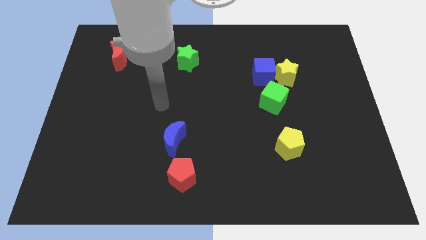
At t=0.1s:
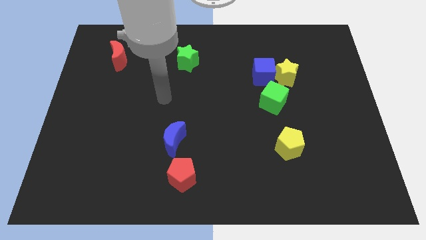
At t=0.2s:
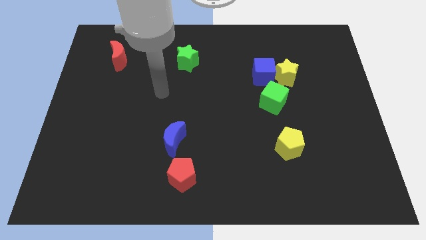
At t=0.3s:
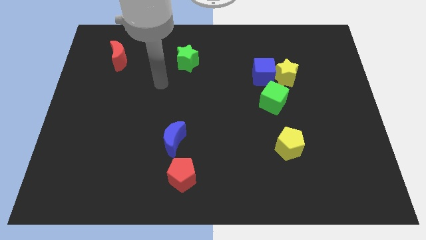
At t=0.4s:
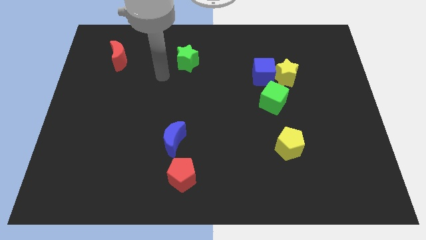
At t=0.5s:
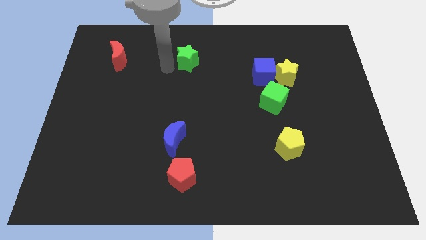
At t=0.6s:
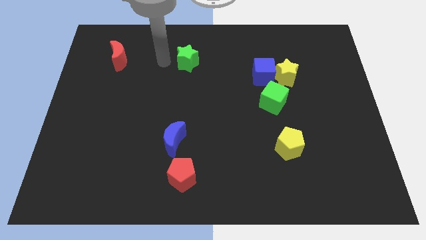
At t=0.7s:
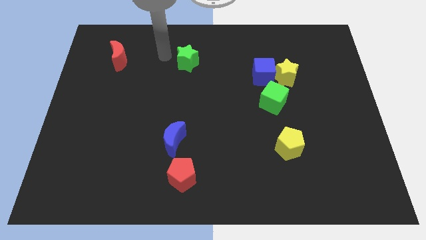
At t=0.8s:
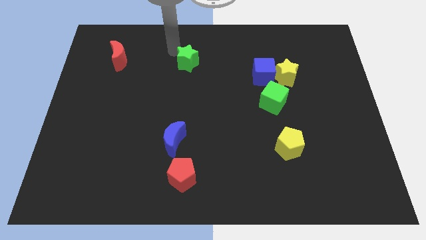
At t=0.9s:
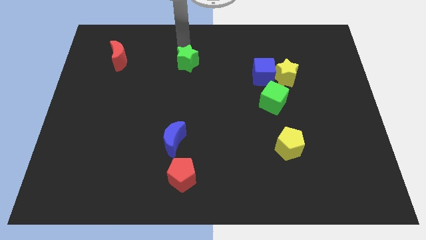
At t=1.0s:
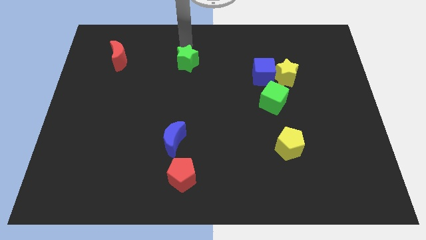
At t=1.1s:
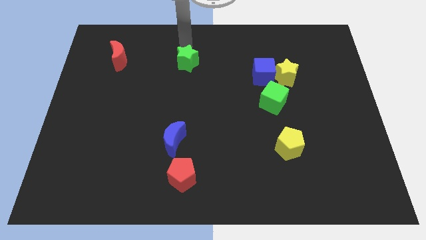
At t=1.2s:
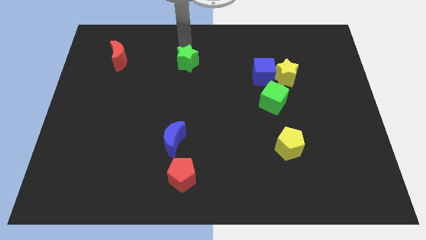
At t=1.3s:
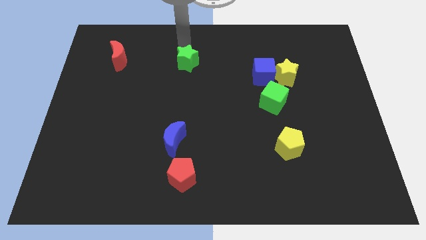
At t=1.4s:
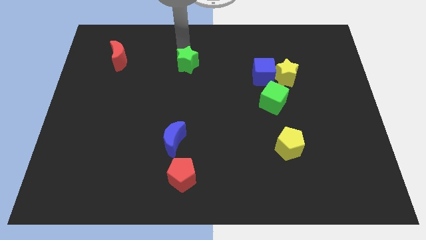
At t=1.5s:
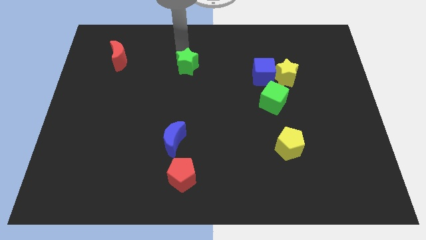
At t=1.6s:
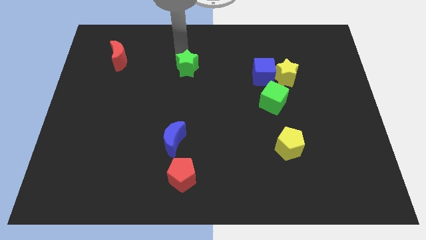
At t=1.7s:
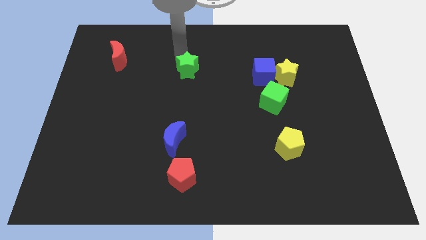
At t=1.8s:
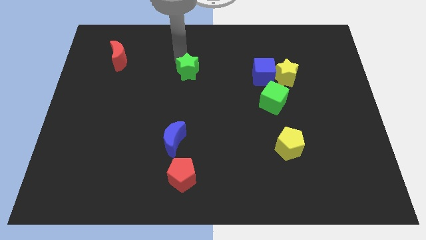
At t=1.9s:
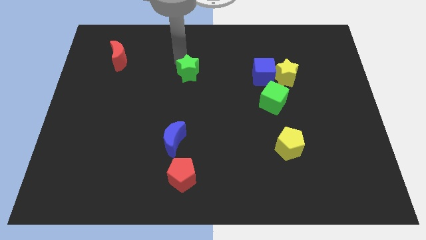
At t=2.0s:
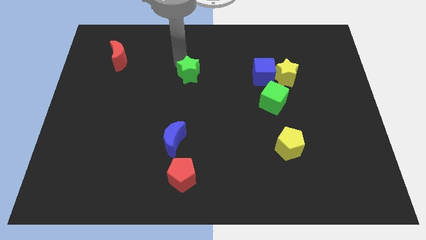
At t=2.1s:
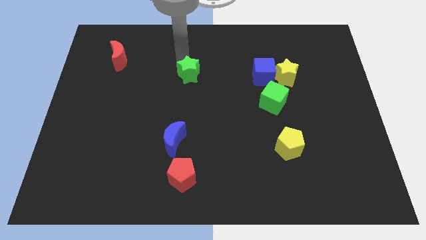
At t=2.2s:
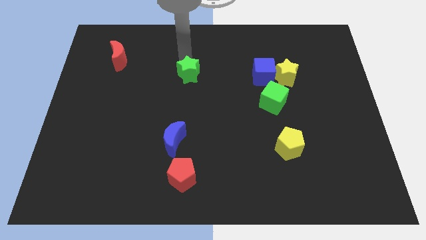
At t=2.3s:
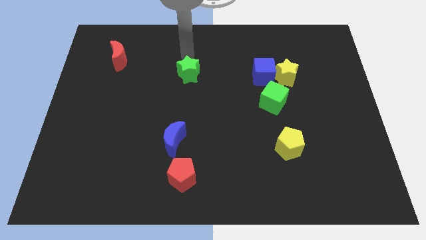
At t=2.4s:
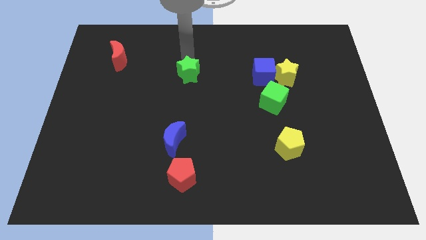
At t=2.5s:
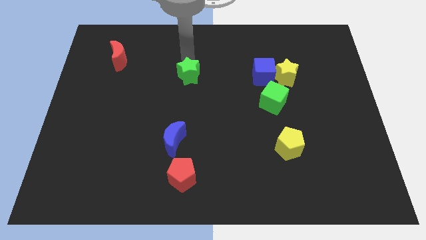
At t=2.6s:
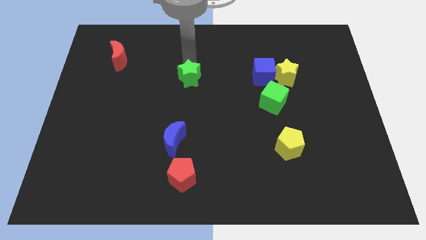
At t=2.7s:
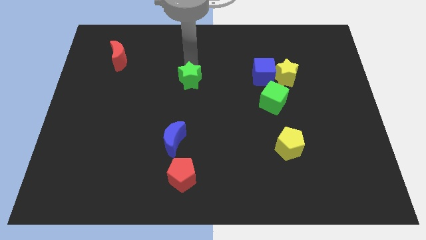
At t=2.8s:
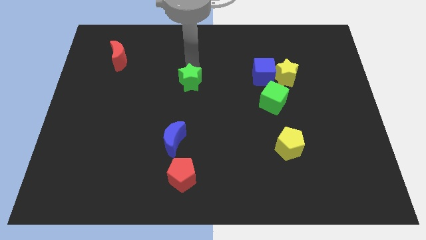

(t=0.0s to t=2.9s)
slide the green star downwards somewhat

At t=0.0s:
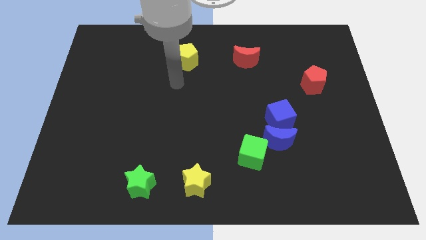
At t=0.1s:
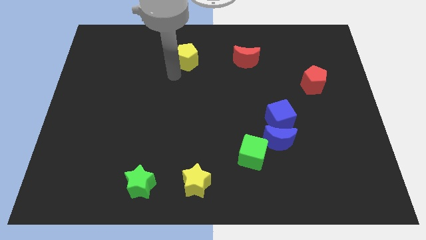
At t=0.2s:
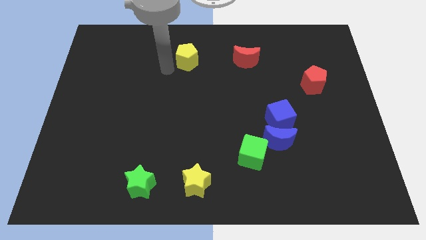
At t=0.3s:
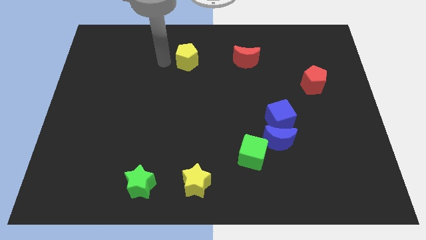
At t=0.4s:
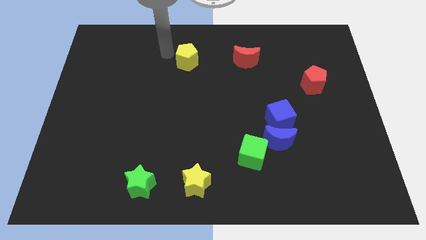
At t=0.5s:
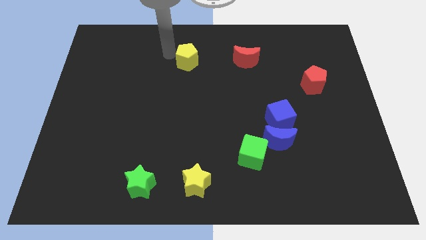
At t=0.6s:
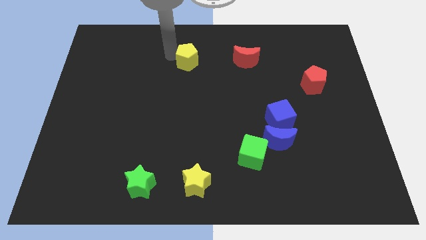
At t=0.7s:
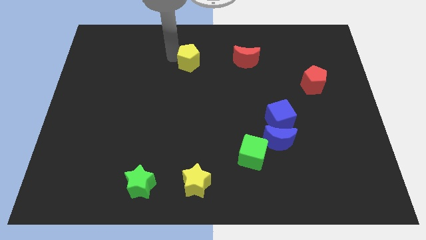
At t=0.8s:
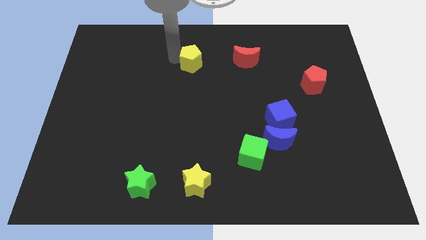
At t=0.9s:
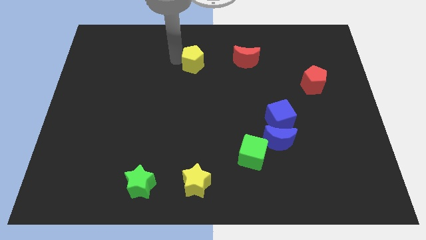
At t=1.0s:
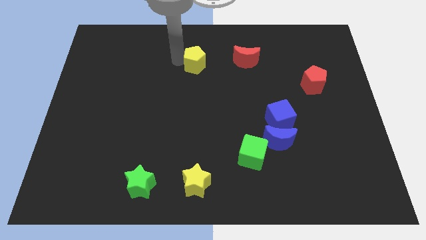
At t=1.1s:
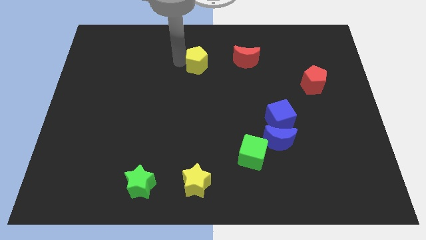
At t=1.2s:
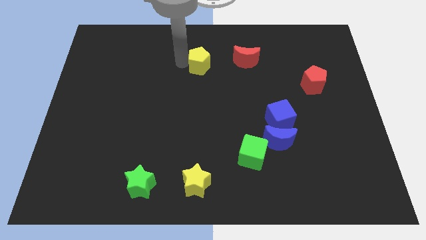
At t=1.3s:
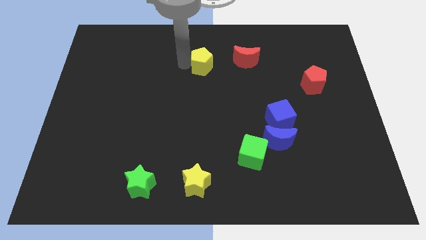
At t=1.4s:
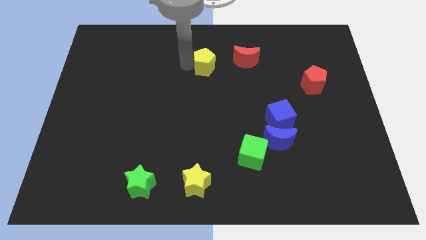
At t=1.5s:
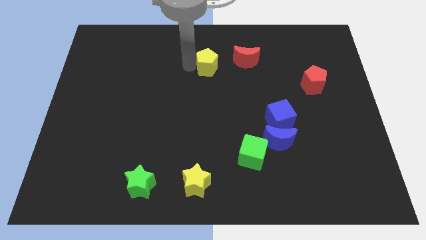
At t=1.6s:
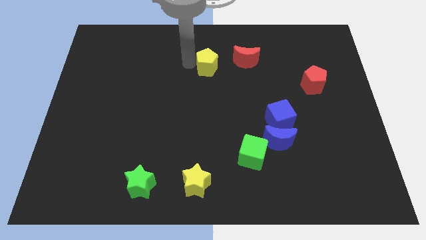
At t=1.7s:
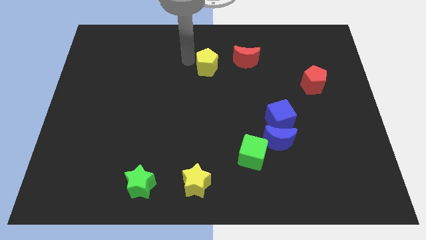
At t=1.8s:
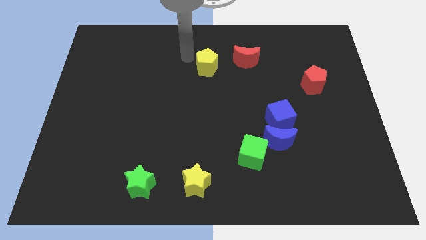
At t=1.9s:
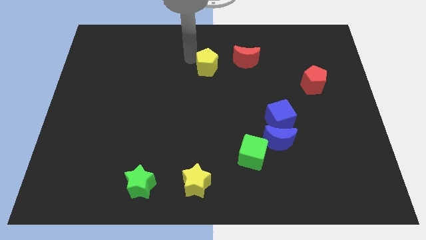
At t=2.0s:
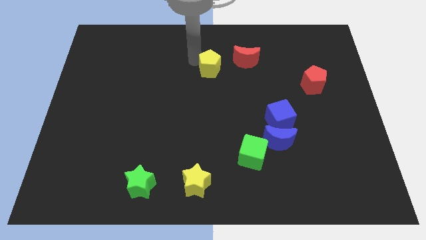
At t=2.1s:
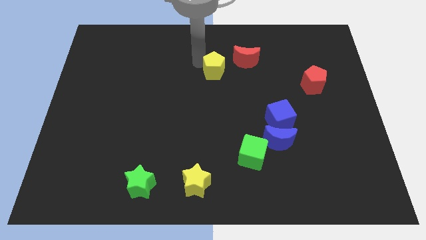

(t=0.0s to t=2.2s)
slightly slide the yellow pentagon downwards and right

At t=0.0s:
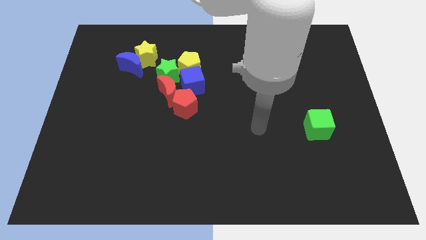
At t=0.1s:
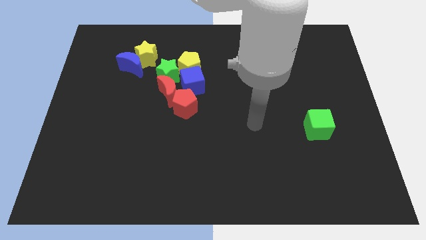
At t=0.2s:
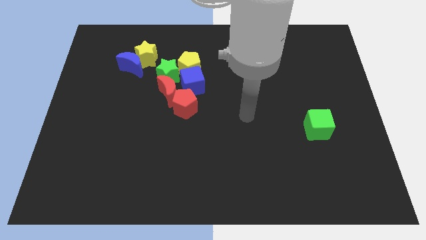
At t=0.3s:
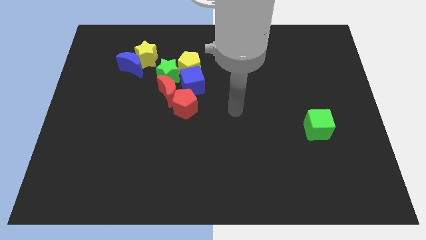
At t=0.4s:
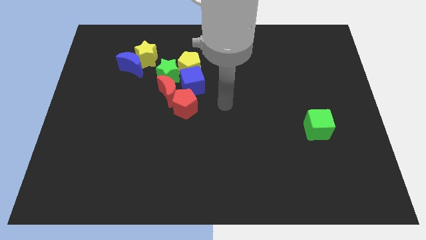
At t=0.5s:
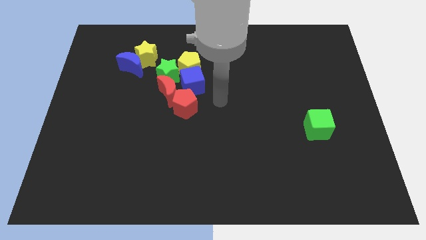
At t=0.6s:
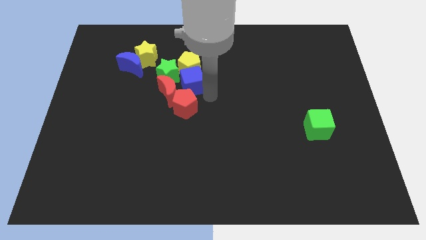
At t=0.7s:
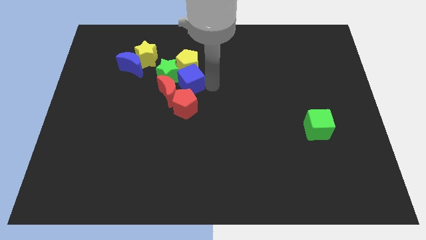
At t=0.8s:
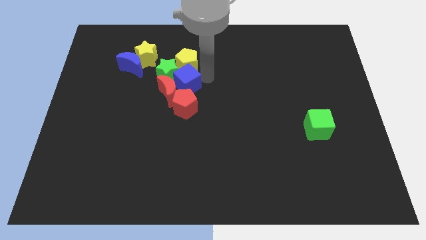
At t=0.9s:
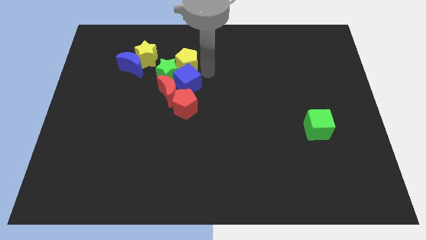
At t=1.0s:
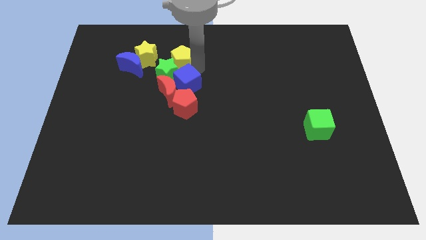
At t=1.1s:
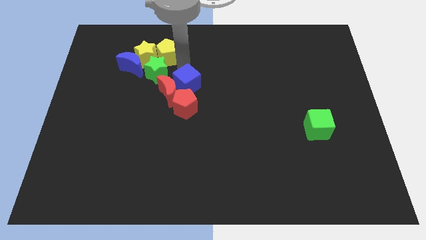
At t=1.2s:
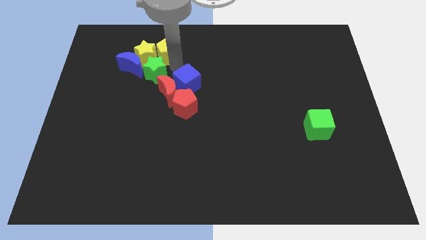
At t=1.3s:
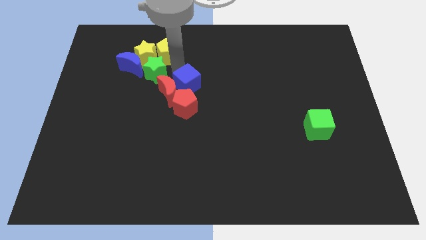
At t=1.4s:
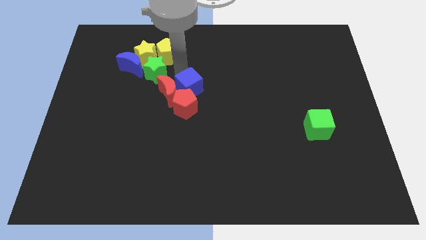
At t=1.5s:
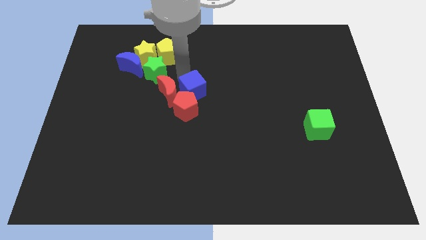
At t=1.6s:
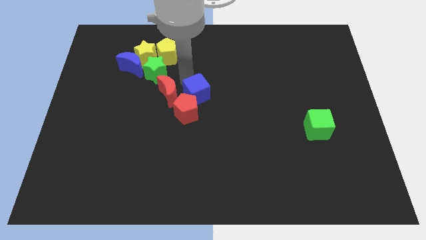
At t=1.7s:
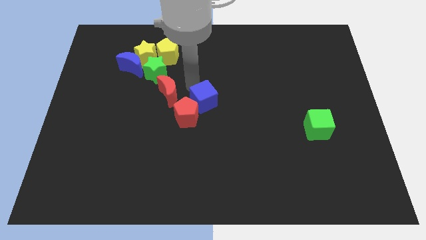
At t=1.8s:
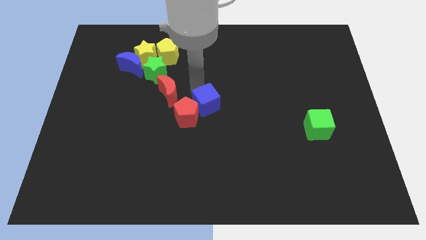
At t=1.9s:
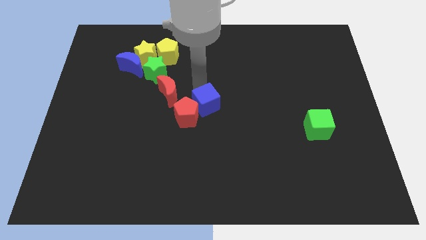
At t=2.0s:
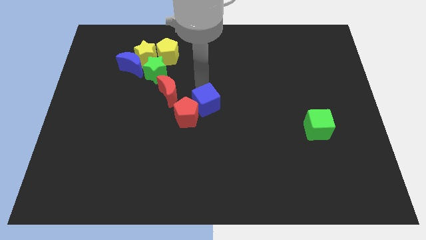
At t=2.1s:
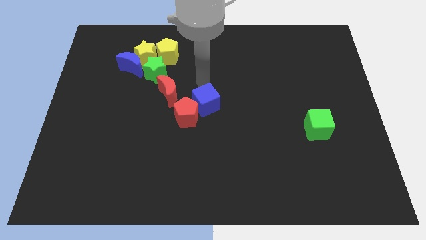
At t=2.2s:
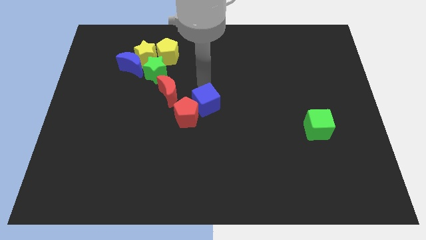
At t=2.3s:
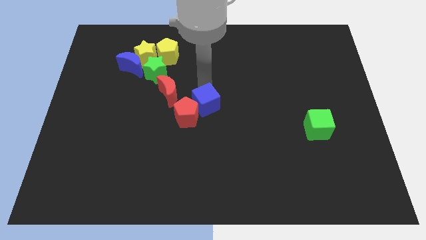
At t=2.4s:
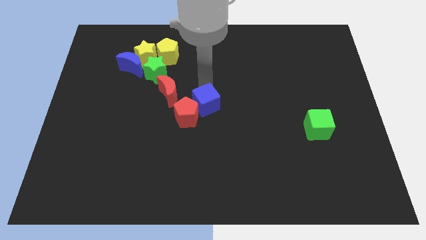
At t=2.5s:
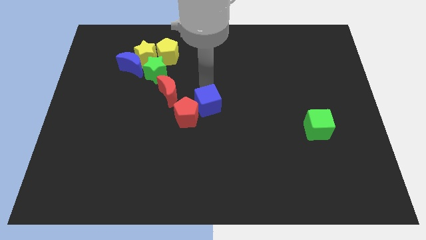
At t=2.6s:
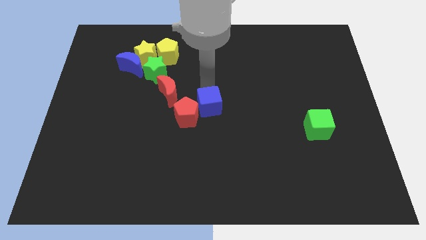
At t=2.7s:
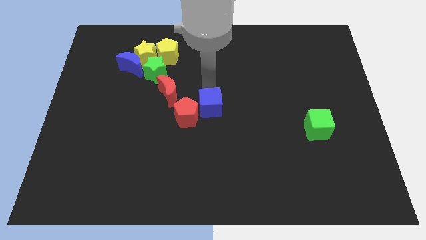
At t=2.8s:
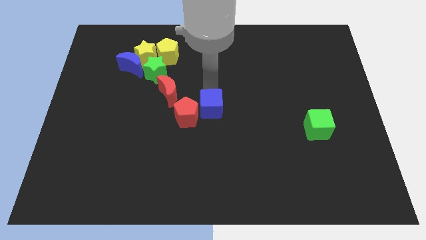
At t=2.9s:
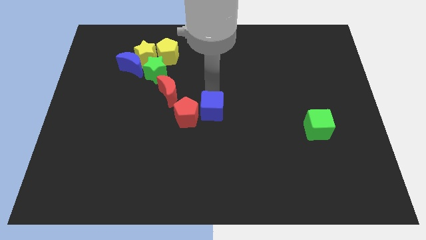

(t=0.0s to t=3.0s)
push the blue cube down a little bit
